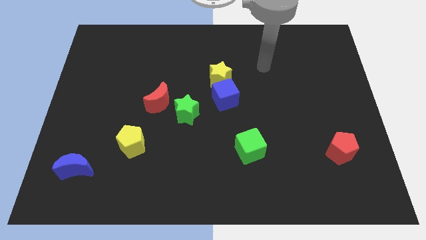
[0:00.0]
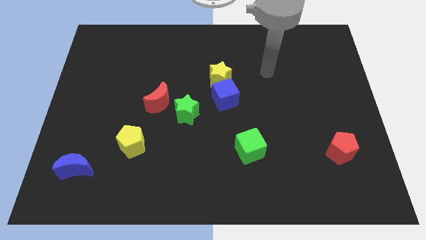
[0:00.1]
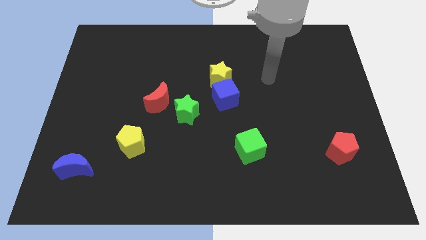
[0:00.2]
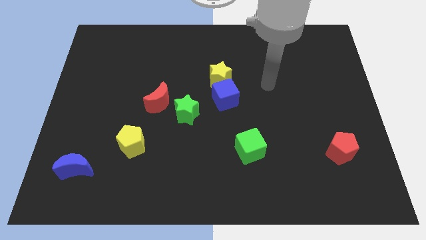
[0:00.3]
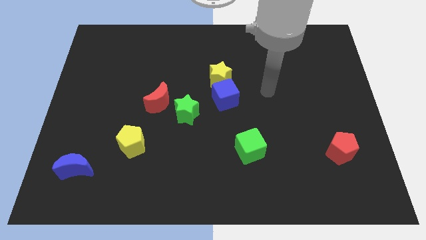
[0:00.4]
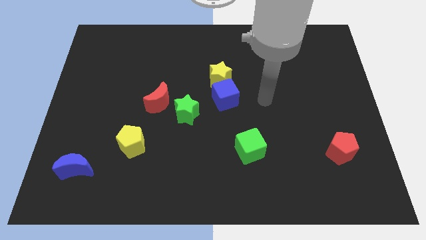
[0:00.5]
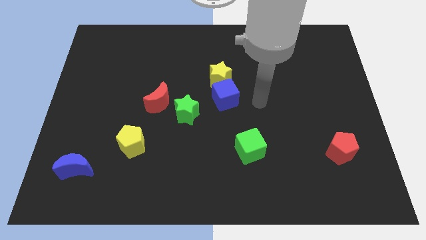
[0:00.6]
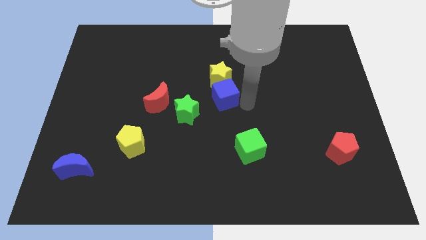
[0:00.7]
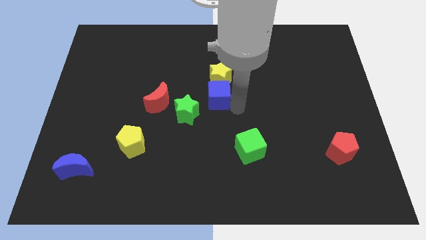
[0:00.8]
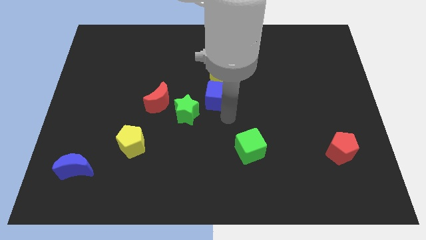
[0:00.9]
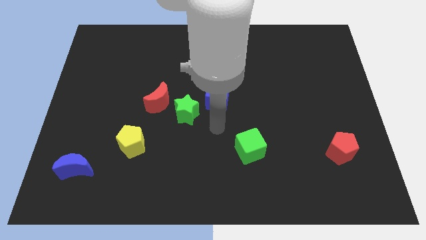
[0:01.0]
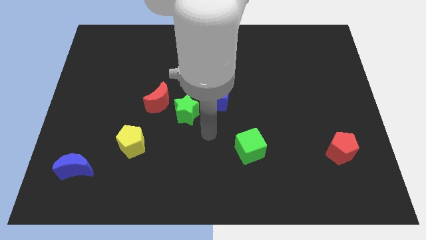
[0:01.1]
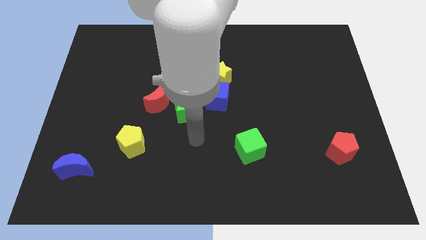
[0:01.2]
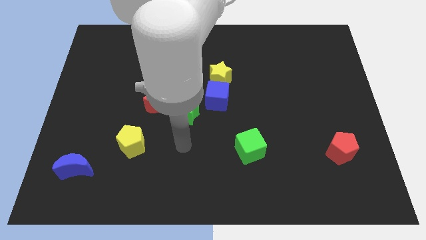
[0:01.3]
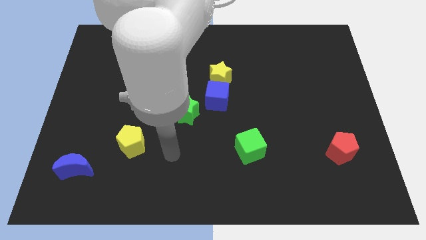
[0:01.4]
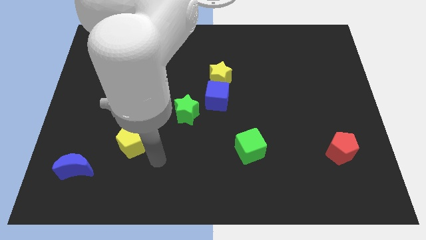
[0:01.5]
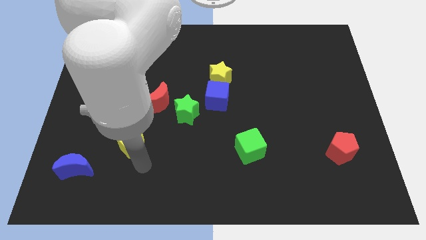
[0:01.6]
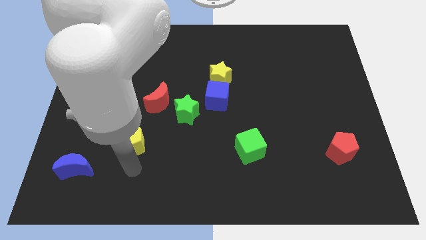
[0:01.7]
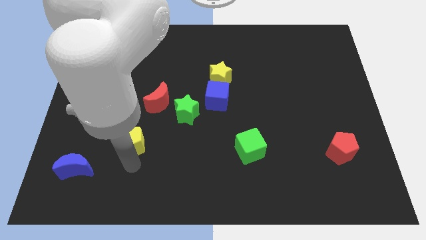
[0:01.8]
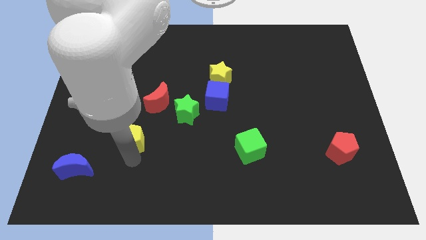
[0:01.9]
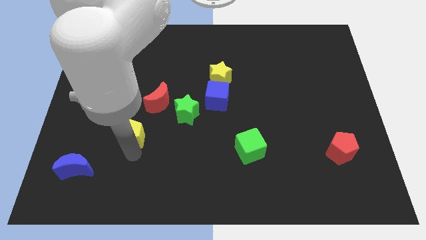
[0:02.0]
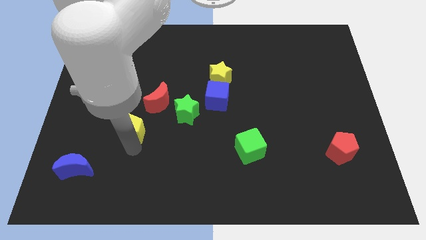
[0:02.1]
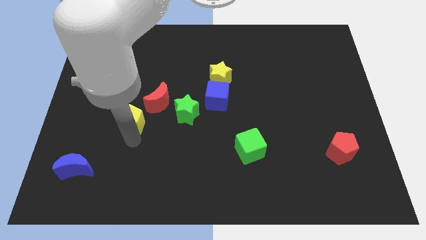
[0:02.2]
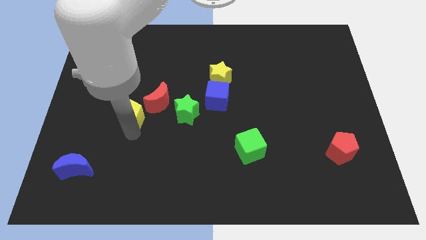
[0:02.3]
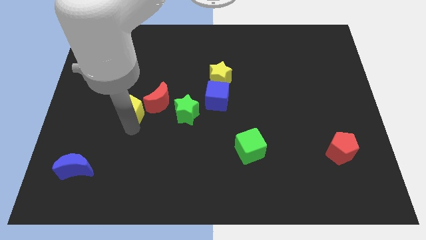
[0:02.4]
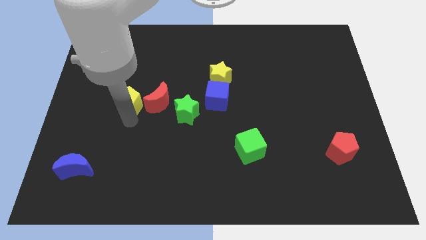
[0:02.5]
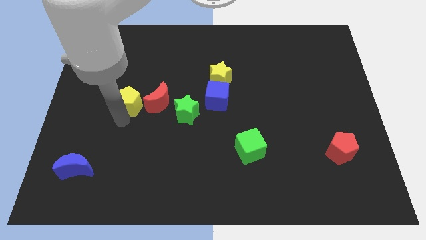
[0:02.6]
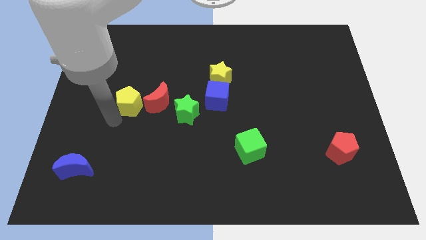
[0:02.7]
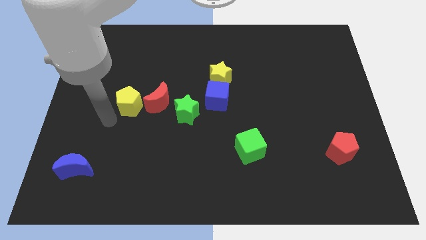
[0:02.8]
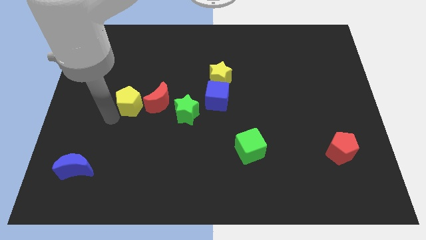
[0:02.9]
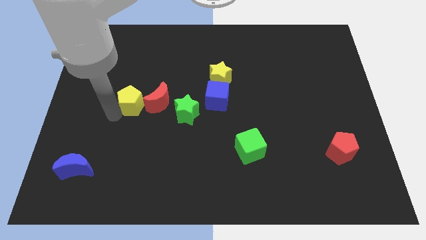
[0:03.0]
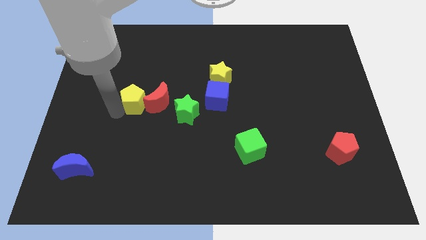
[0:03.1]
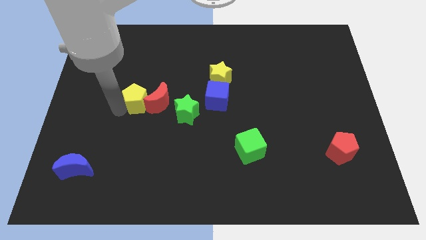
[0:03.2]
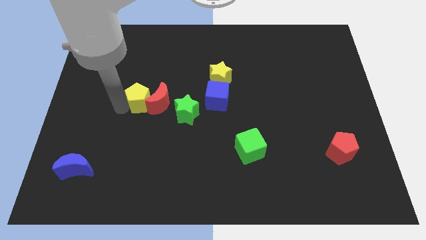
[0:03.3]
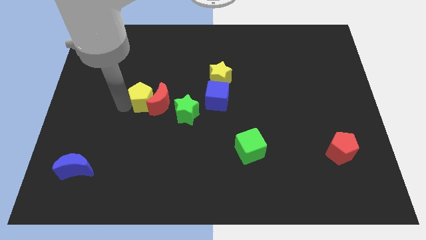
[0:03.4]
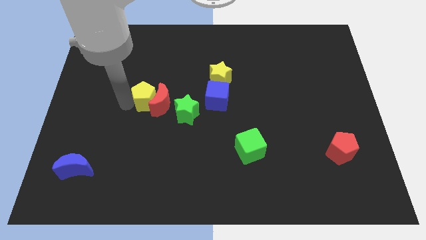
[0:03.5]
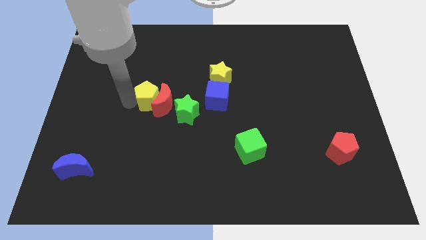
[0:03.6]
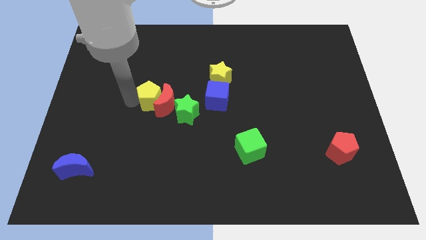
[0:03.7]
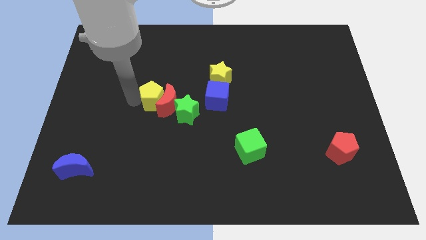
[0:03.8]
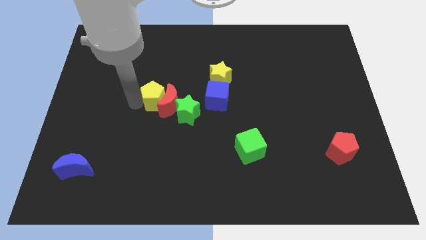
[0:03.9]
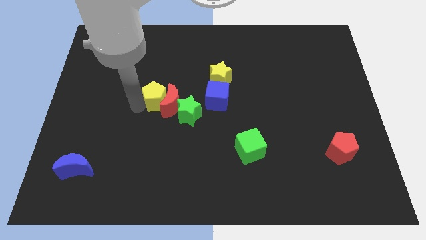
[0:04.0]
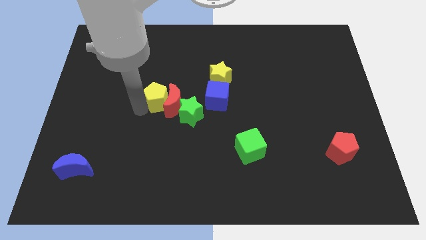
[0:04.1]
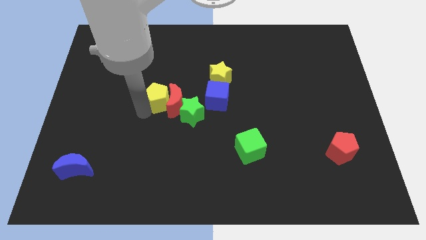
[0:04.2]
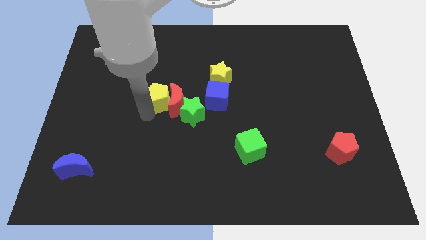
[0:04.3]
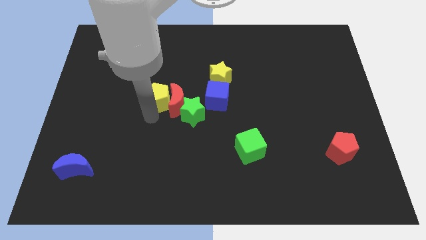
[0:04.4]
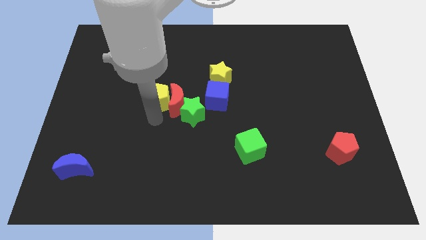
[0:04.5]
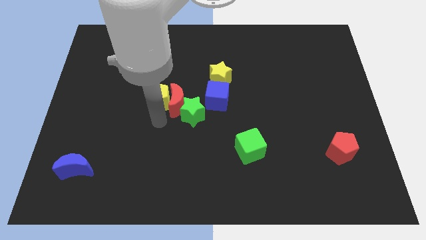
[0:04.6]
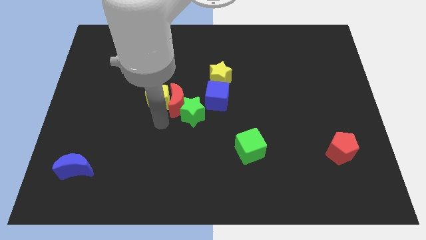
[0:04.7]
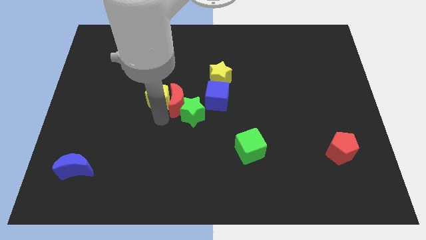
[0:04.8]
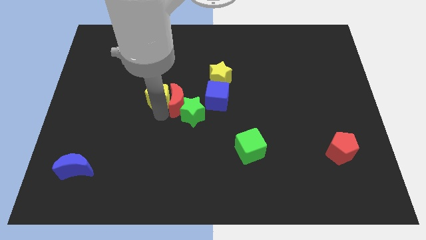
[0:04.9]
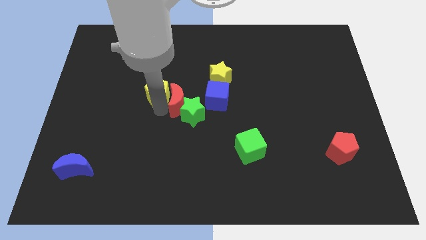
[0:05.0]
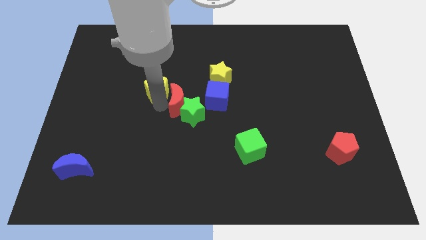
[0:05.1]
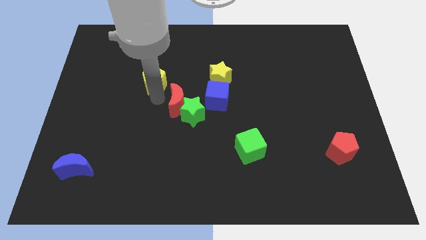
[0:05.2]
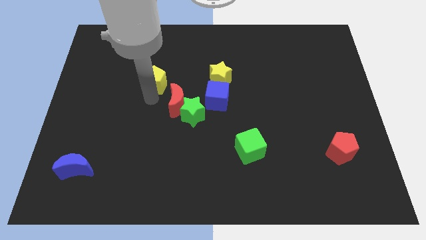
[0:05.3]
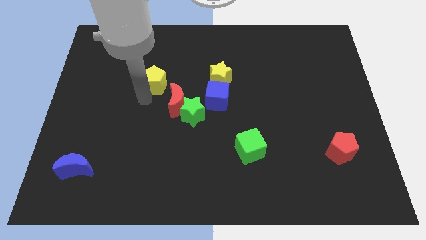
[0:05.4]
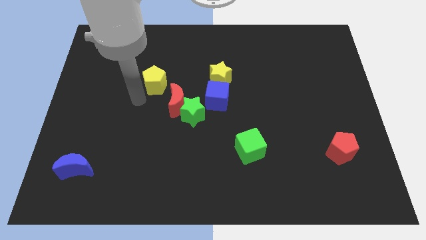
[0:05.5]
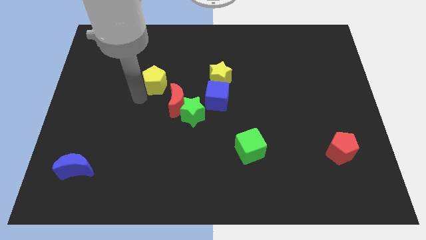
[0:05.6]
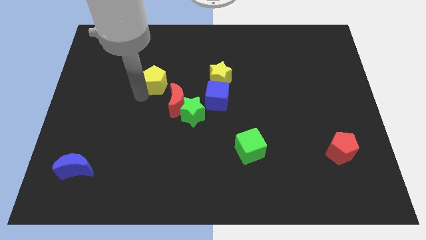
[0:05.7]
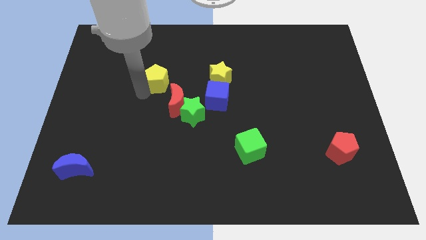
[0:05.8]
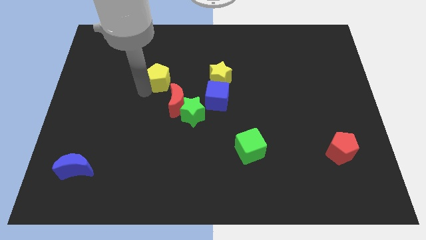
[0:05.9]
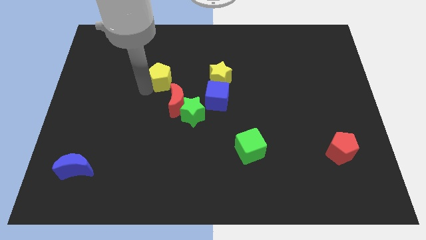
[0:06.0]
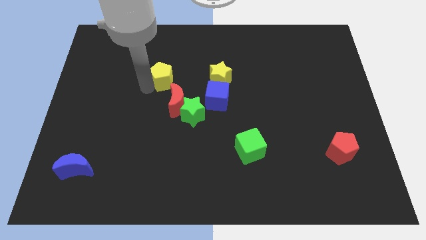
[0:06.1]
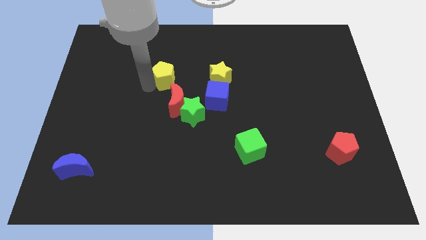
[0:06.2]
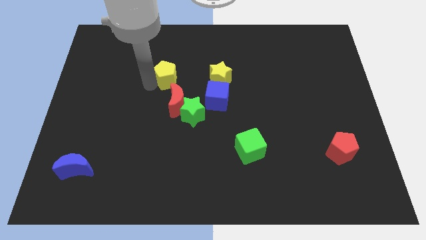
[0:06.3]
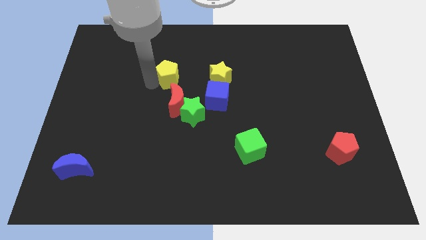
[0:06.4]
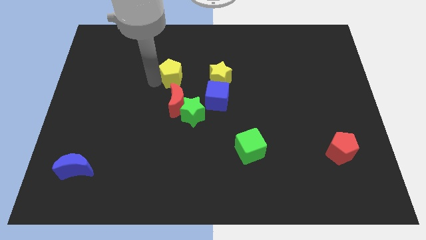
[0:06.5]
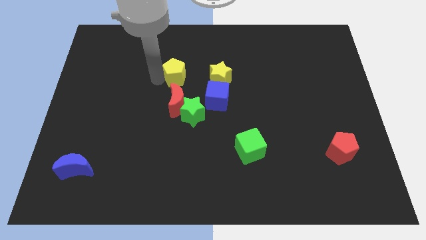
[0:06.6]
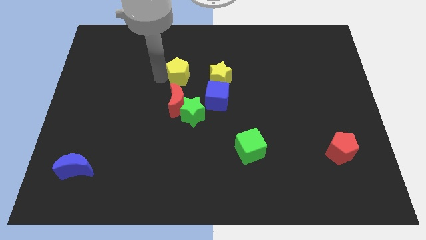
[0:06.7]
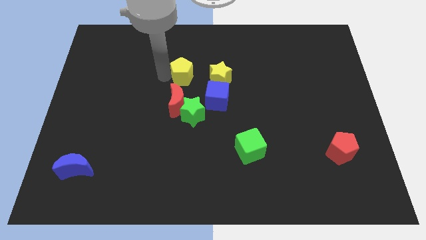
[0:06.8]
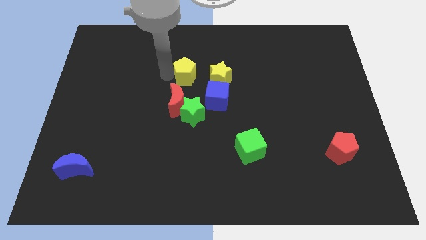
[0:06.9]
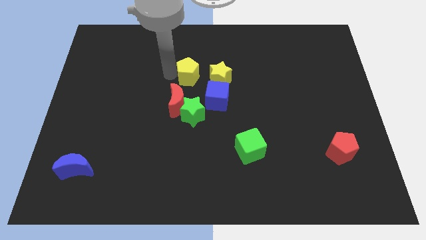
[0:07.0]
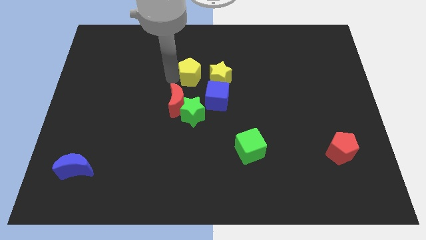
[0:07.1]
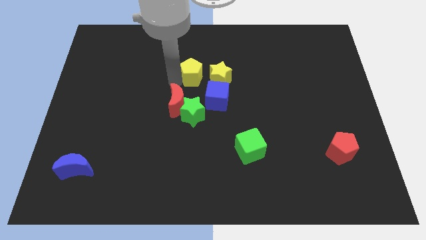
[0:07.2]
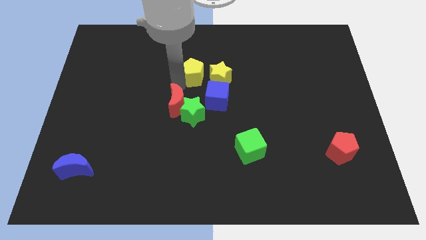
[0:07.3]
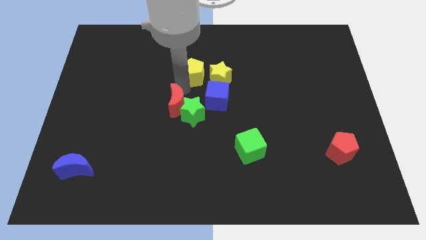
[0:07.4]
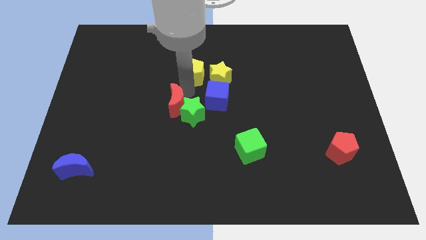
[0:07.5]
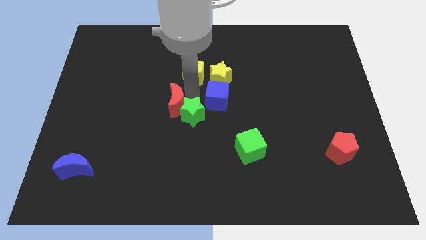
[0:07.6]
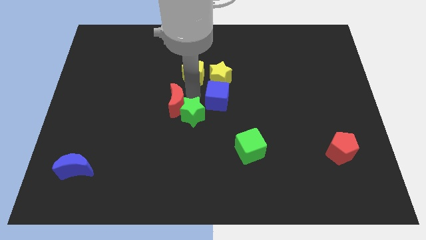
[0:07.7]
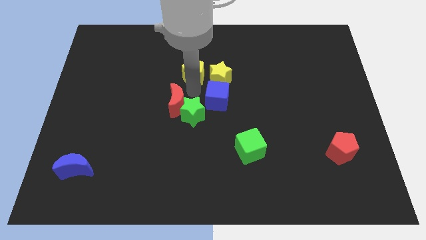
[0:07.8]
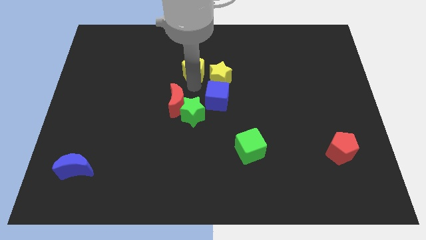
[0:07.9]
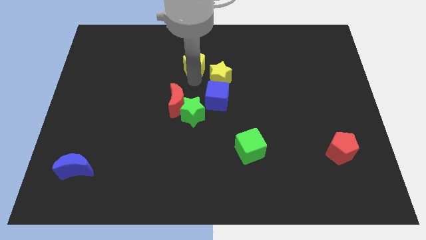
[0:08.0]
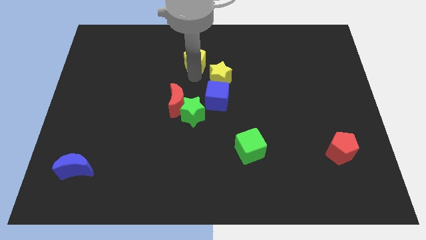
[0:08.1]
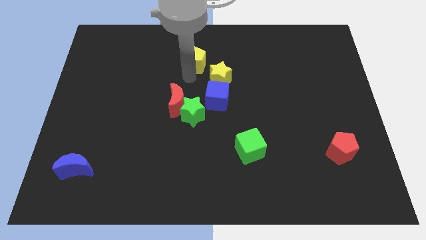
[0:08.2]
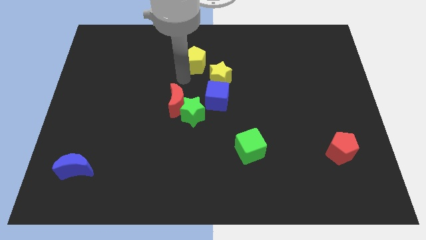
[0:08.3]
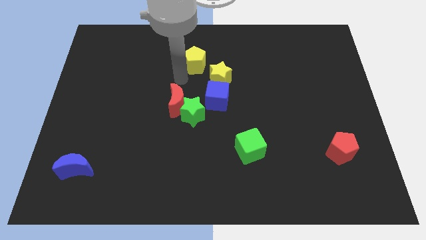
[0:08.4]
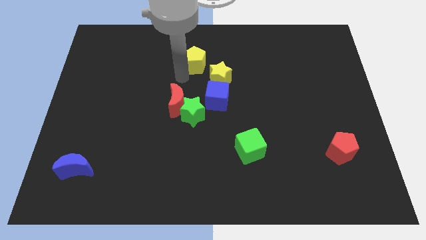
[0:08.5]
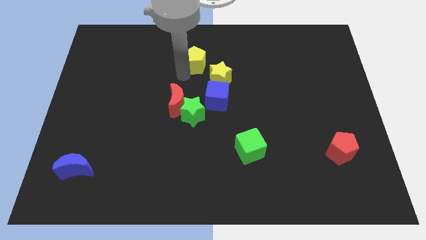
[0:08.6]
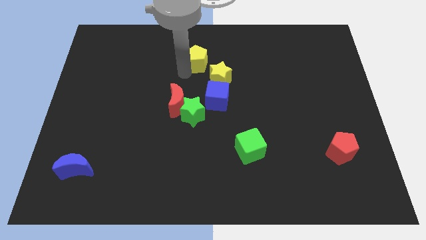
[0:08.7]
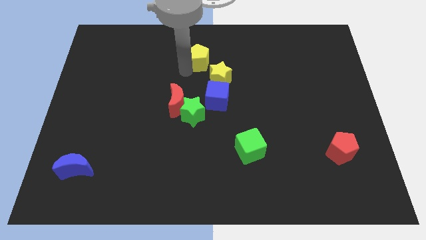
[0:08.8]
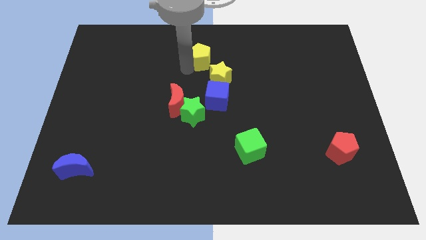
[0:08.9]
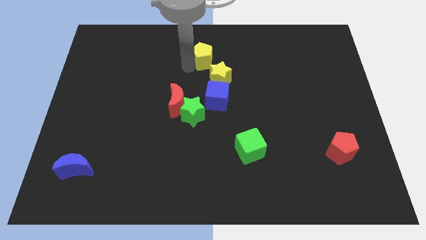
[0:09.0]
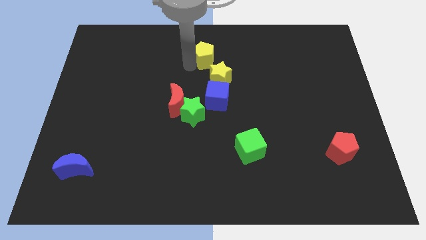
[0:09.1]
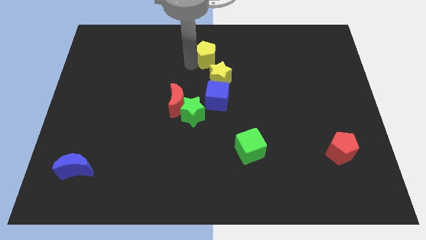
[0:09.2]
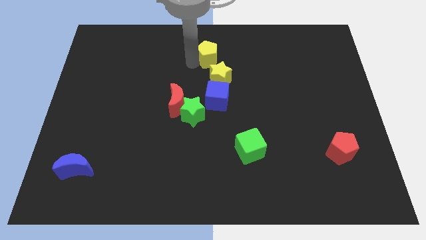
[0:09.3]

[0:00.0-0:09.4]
move the yellow pentagon to the top
